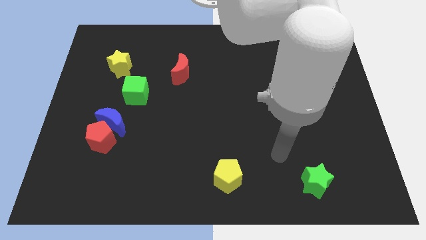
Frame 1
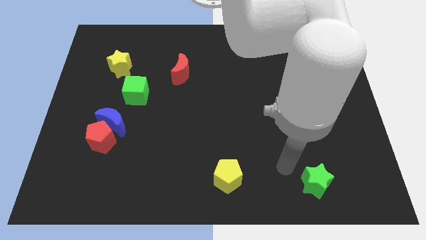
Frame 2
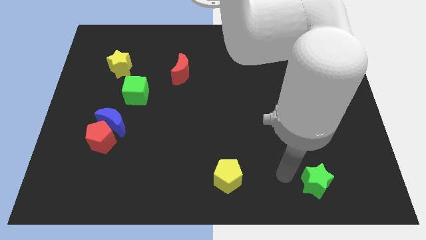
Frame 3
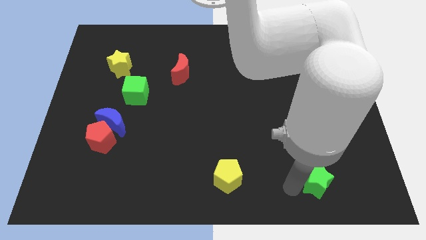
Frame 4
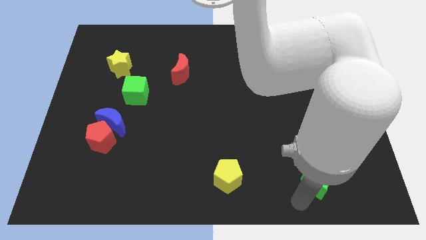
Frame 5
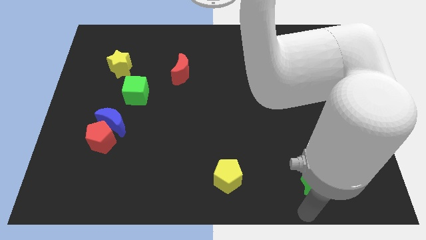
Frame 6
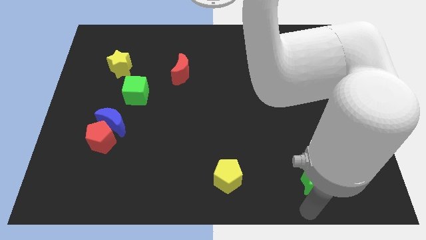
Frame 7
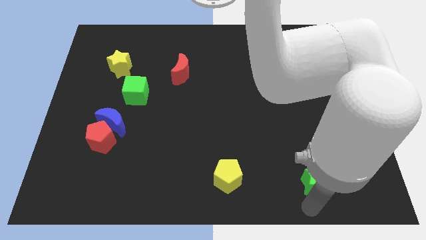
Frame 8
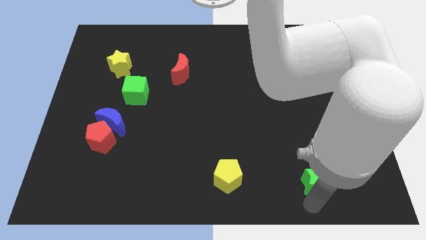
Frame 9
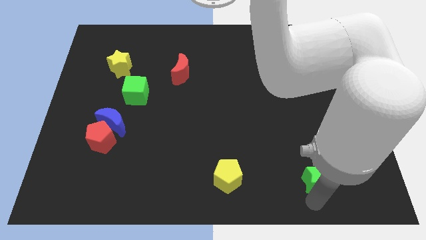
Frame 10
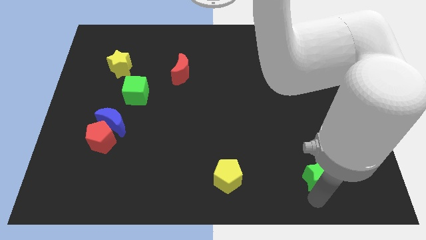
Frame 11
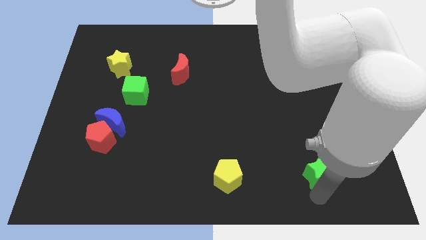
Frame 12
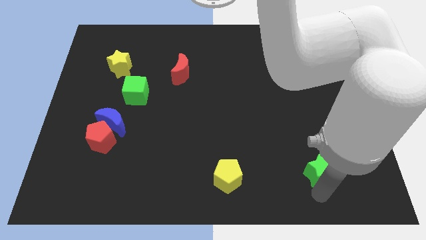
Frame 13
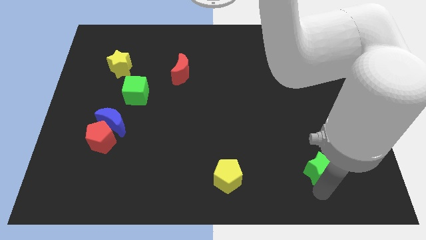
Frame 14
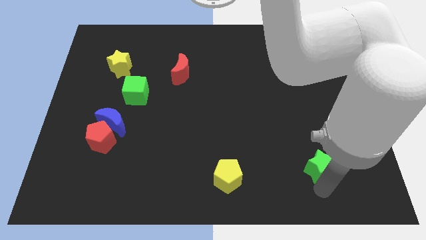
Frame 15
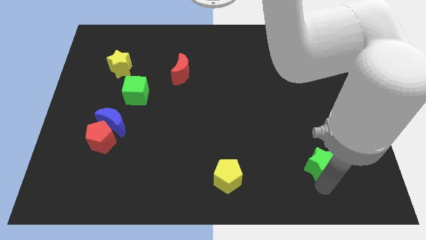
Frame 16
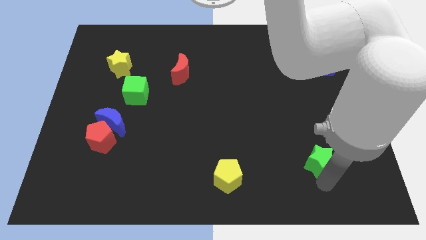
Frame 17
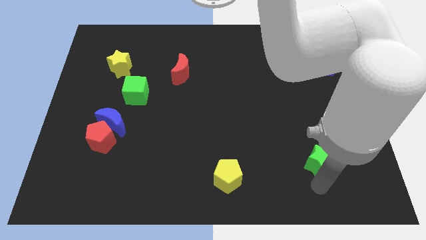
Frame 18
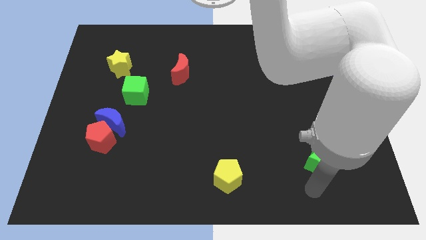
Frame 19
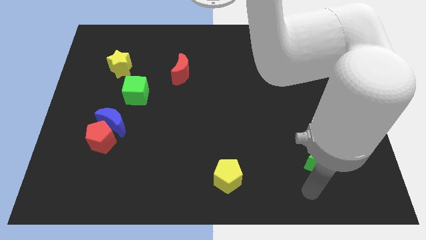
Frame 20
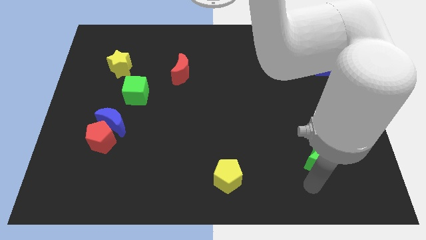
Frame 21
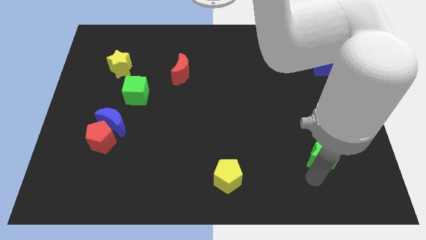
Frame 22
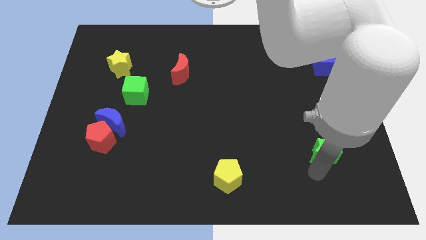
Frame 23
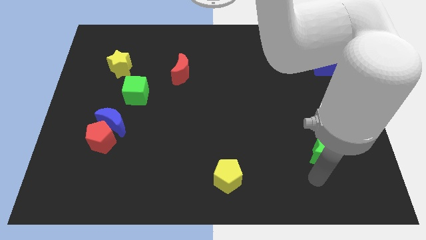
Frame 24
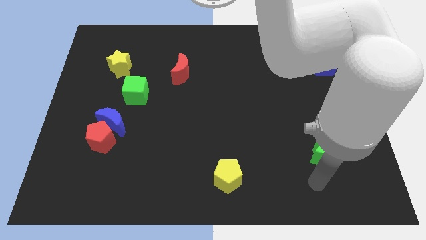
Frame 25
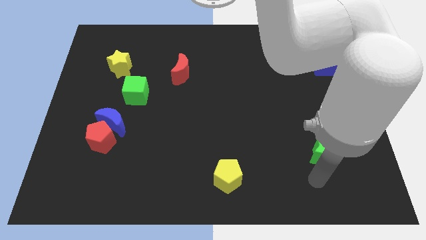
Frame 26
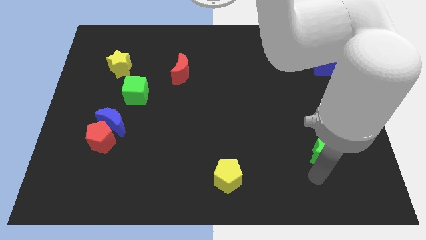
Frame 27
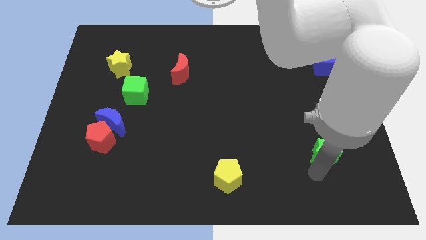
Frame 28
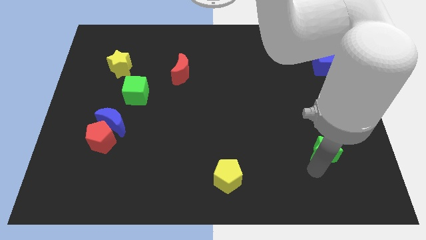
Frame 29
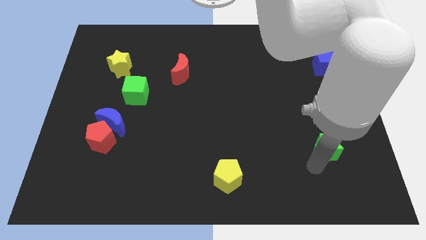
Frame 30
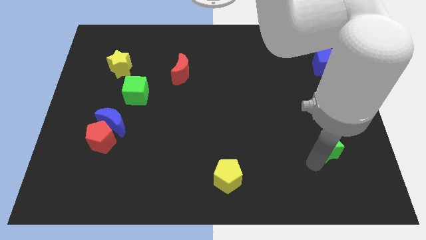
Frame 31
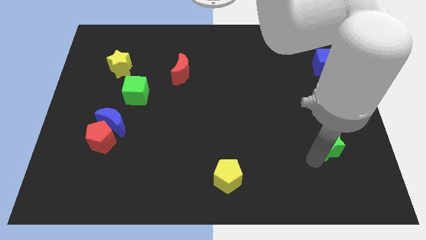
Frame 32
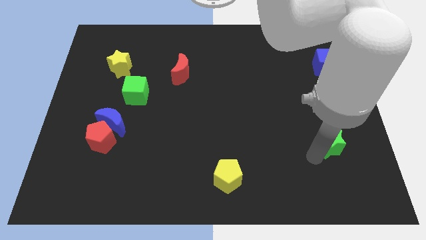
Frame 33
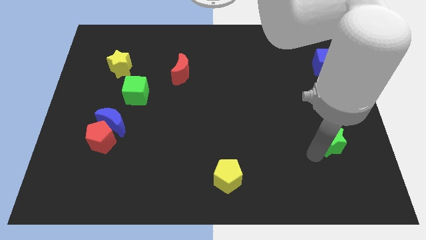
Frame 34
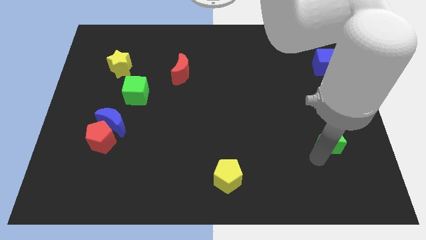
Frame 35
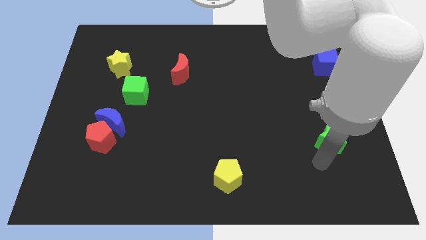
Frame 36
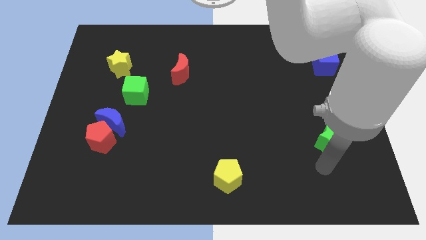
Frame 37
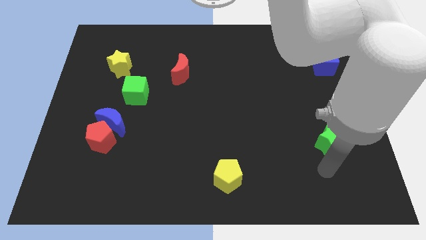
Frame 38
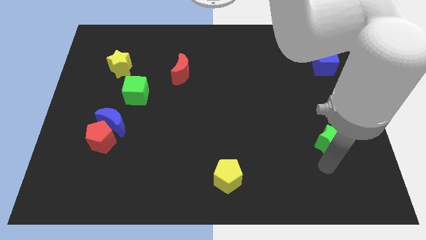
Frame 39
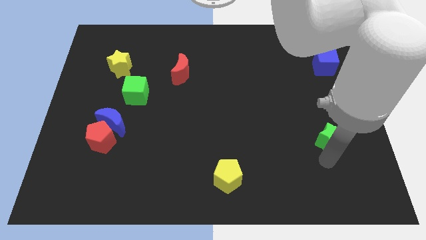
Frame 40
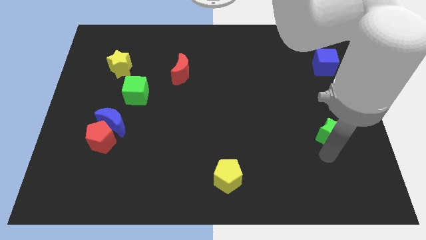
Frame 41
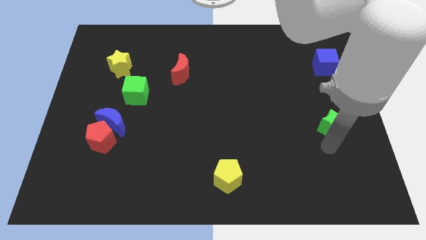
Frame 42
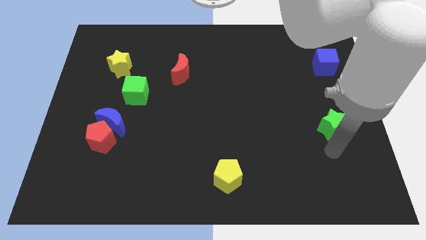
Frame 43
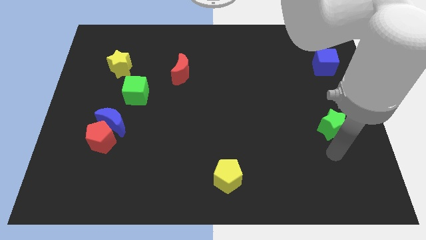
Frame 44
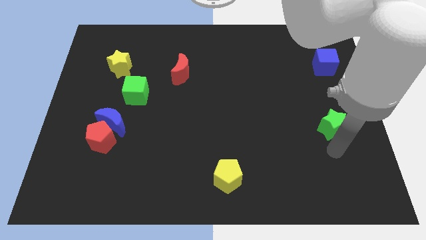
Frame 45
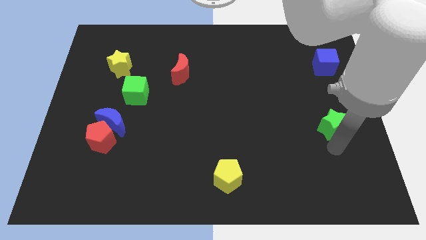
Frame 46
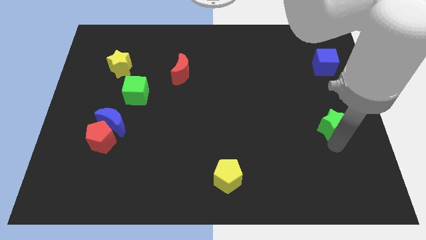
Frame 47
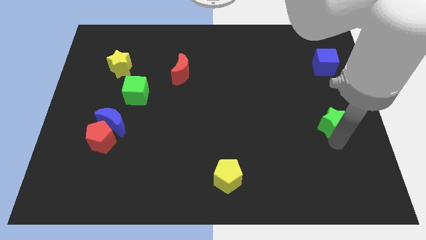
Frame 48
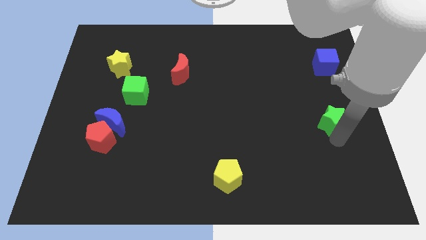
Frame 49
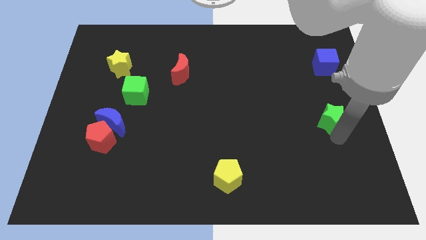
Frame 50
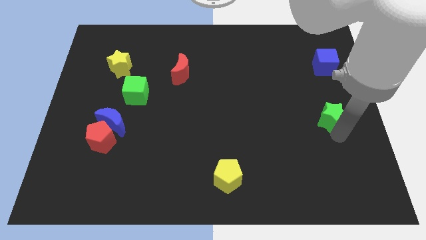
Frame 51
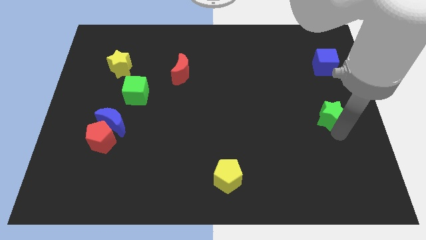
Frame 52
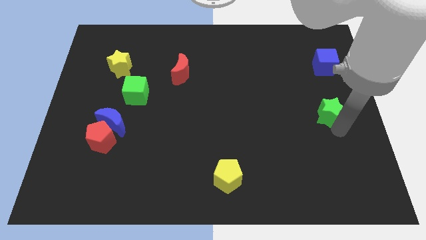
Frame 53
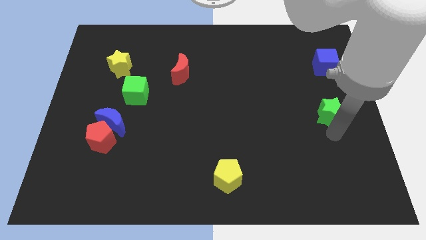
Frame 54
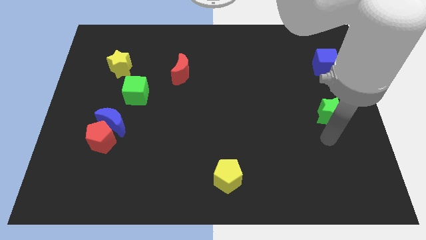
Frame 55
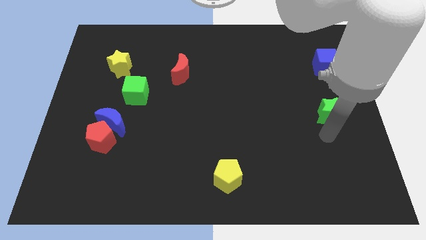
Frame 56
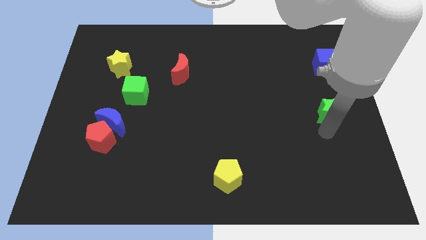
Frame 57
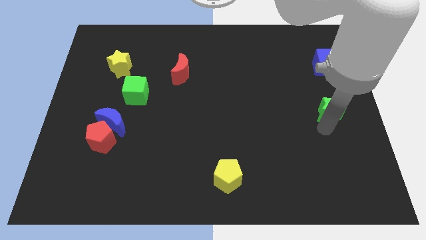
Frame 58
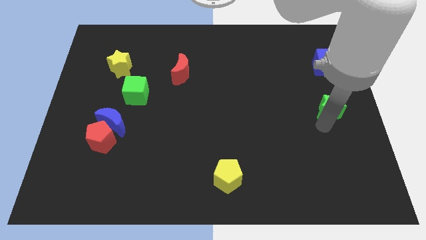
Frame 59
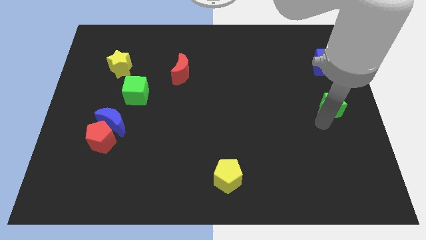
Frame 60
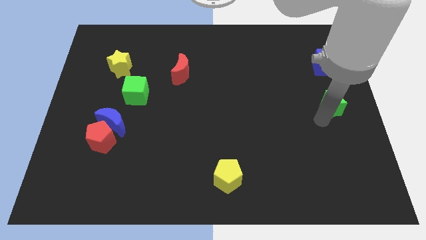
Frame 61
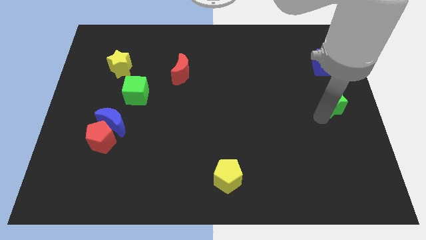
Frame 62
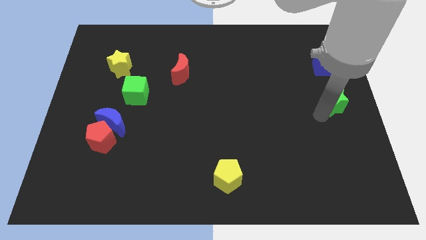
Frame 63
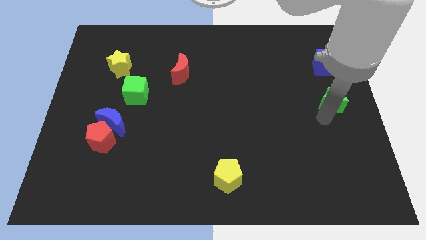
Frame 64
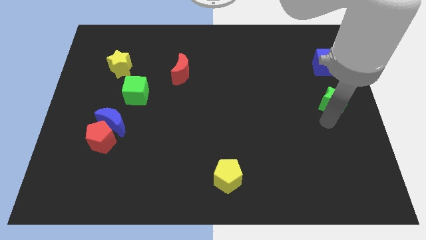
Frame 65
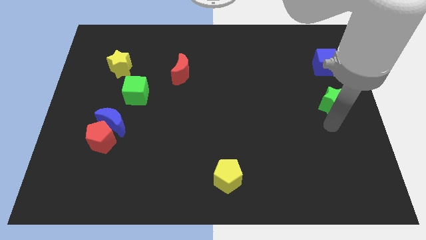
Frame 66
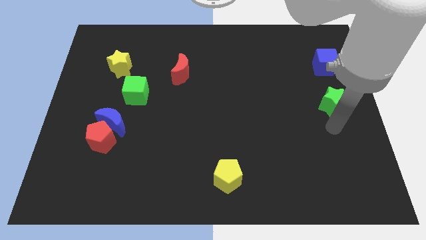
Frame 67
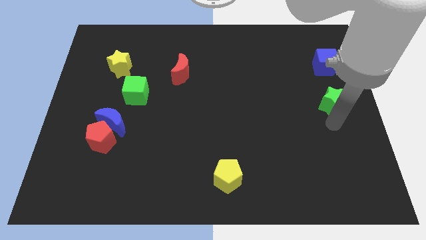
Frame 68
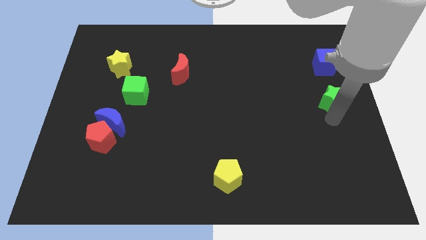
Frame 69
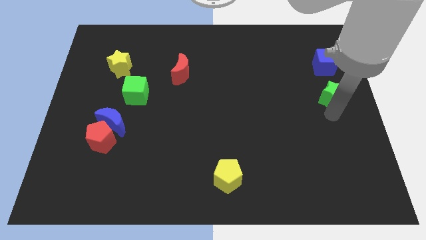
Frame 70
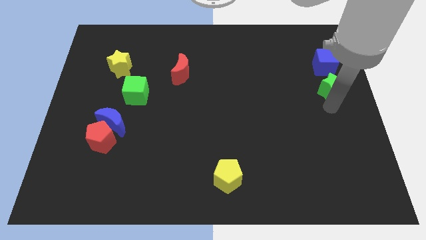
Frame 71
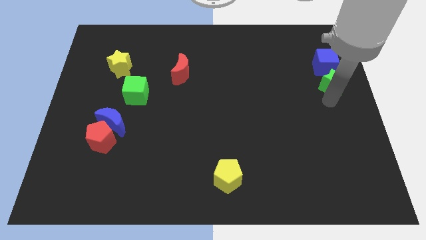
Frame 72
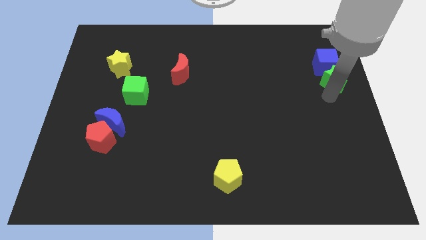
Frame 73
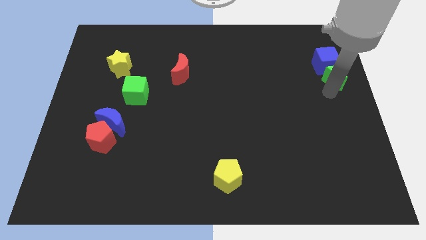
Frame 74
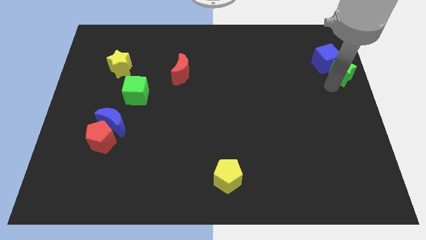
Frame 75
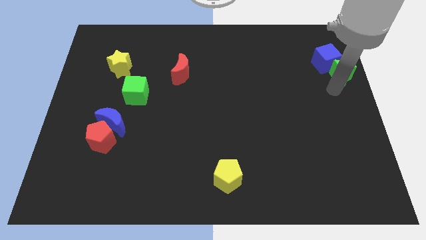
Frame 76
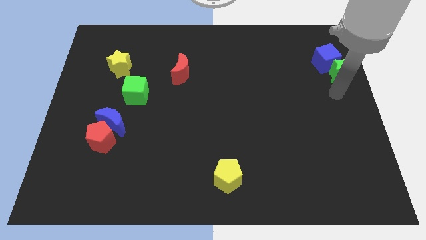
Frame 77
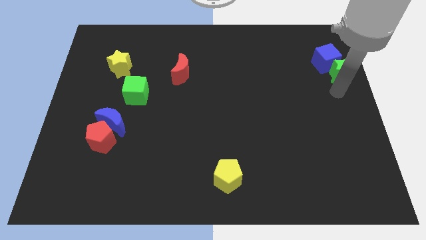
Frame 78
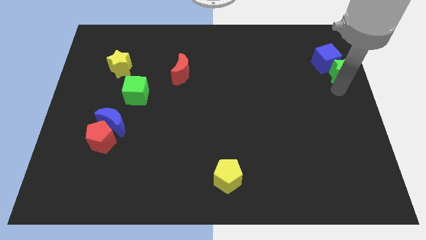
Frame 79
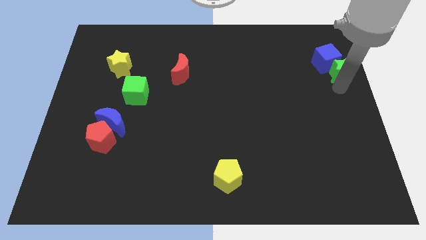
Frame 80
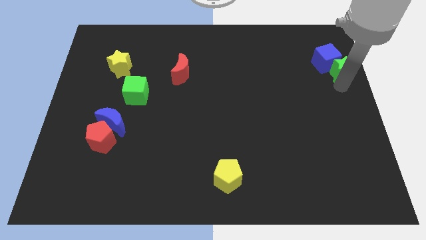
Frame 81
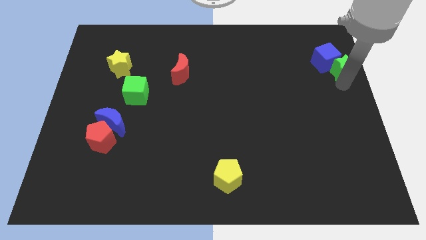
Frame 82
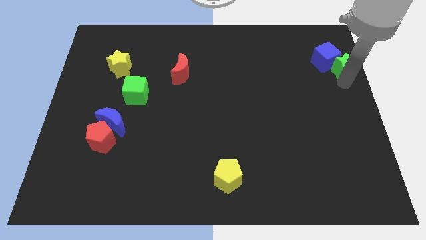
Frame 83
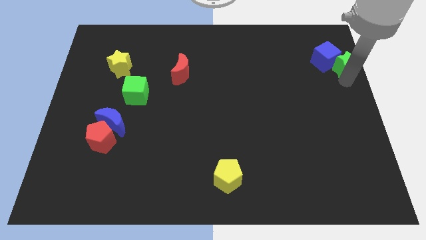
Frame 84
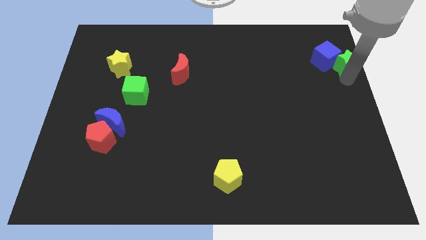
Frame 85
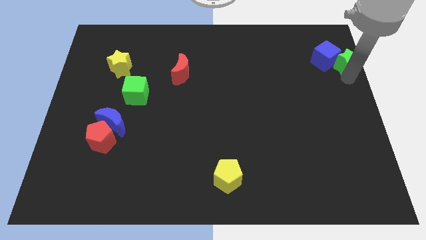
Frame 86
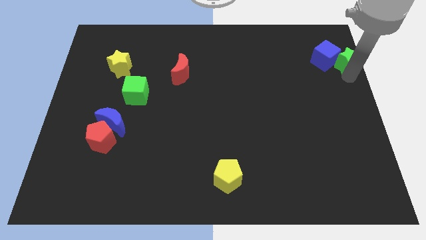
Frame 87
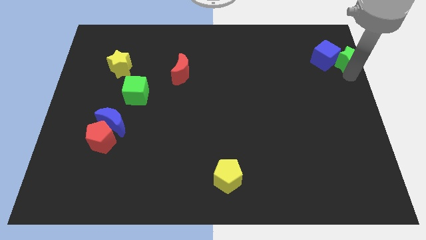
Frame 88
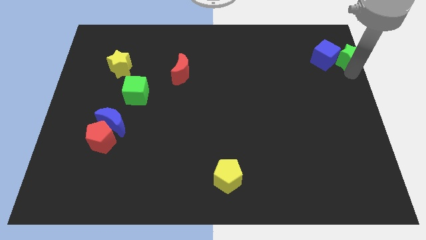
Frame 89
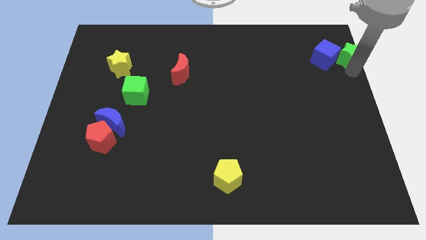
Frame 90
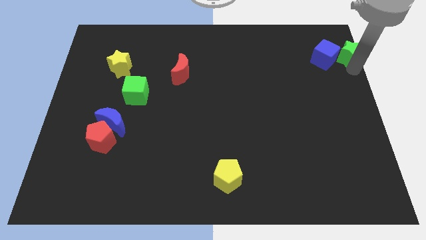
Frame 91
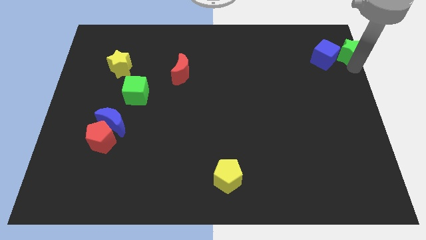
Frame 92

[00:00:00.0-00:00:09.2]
slide the green star to the top right
